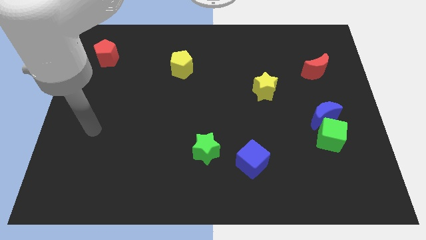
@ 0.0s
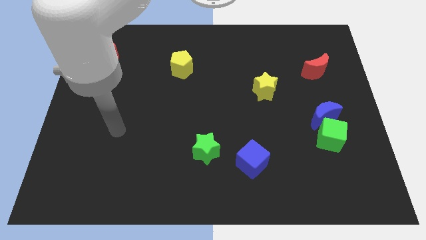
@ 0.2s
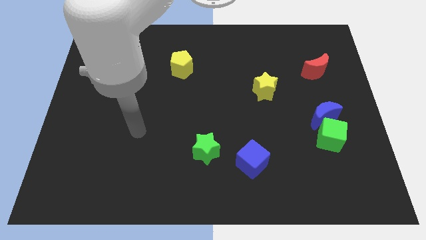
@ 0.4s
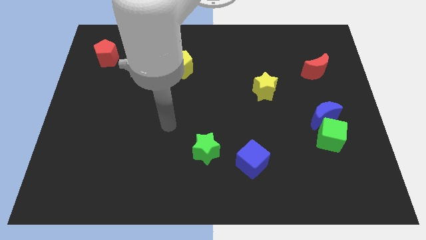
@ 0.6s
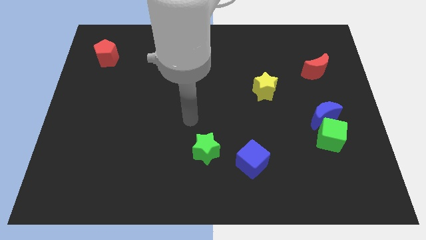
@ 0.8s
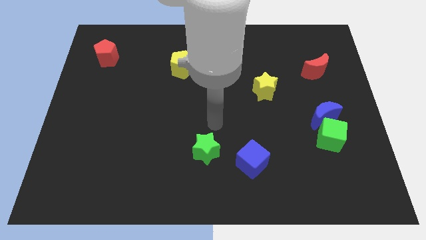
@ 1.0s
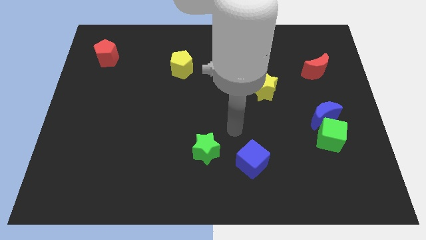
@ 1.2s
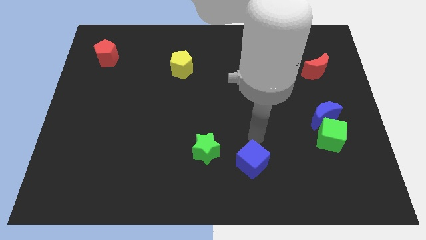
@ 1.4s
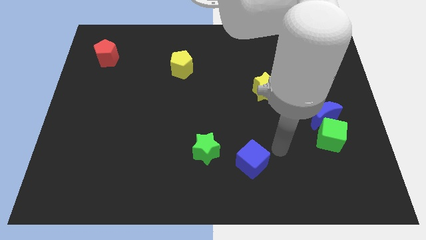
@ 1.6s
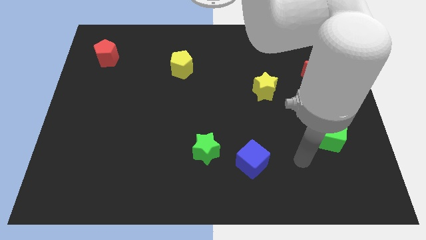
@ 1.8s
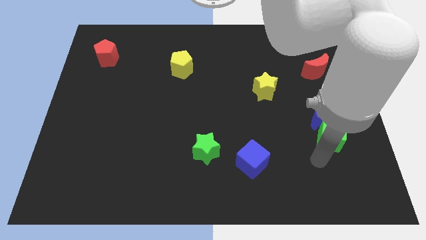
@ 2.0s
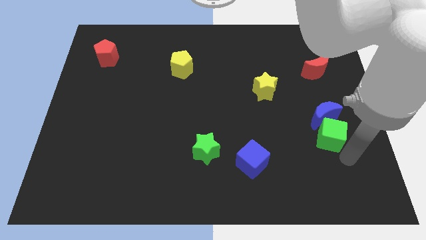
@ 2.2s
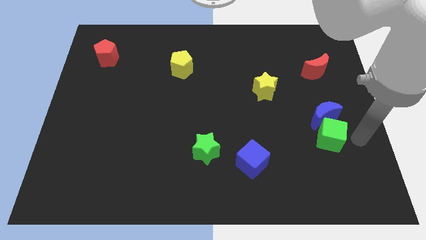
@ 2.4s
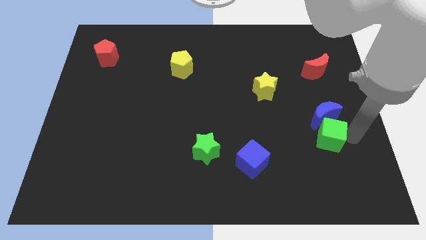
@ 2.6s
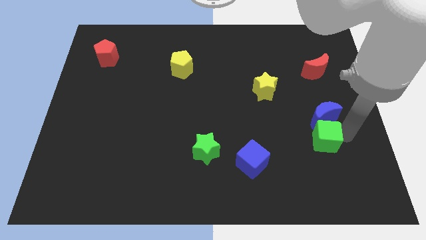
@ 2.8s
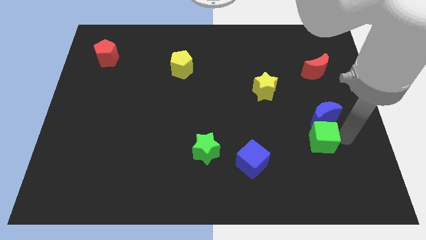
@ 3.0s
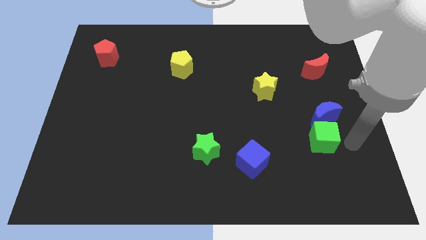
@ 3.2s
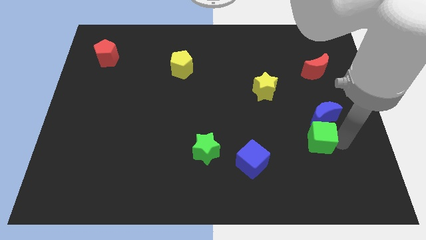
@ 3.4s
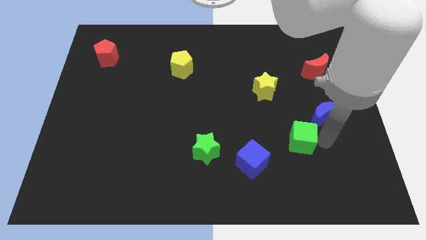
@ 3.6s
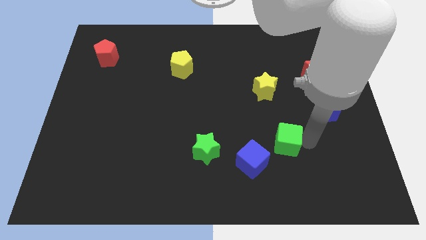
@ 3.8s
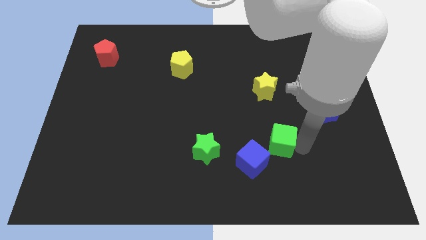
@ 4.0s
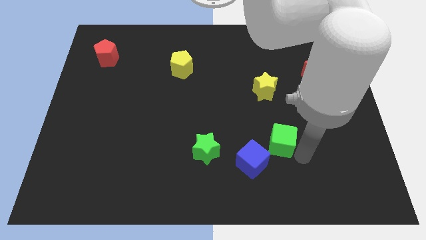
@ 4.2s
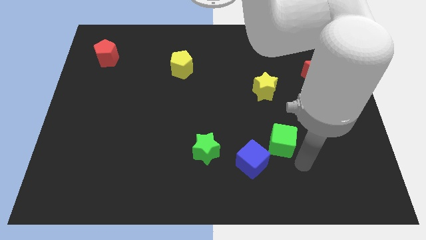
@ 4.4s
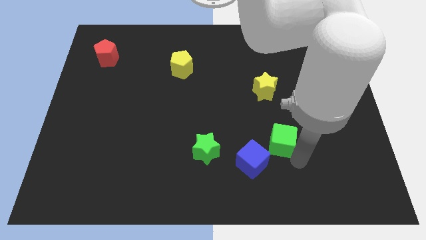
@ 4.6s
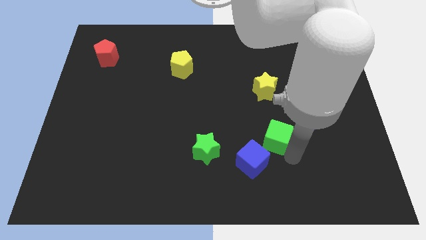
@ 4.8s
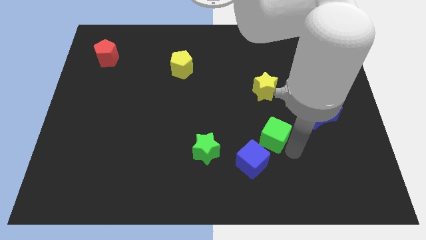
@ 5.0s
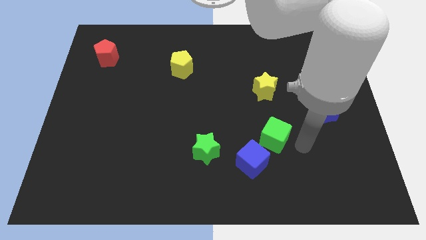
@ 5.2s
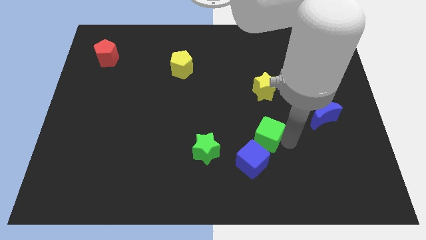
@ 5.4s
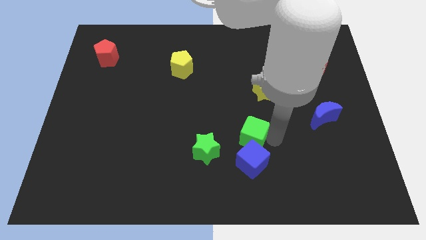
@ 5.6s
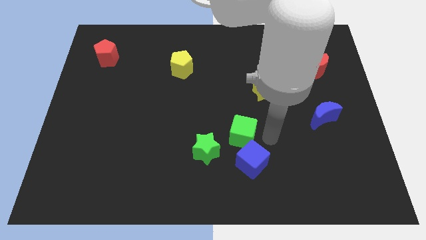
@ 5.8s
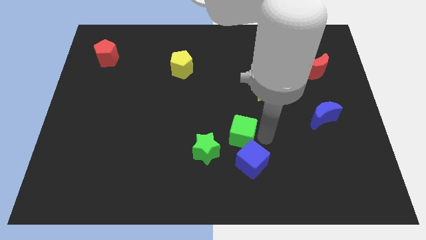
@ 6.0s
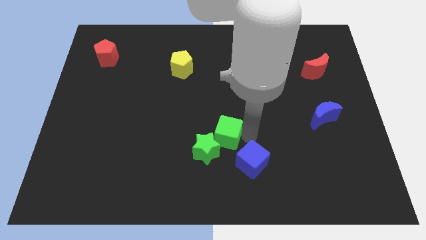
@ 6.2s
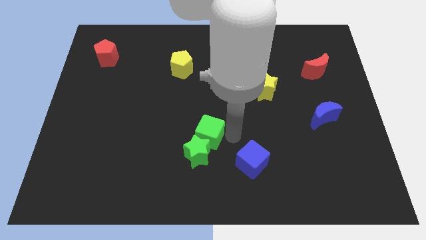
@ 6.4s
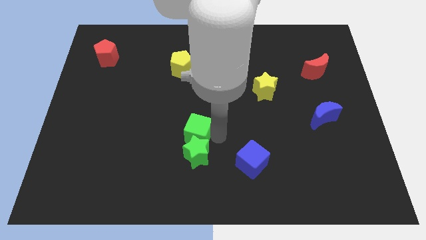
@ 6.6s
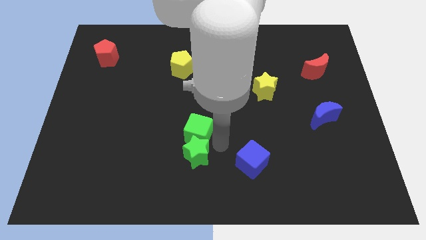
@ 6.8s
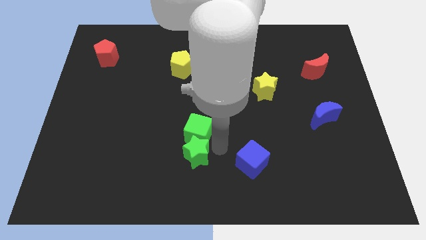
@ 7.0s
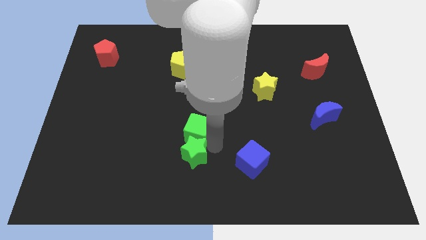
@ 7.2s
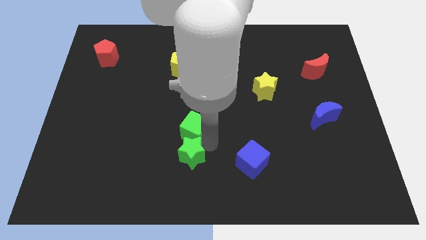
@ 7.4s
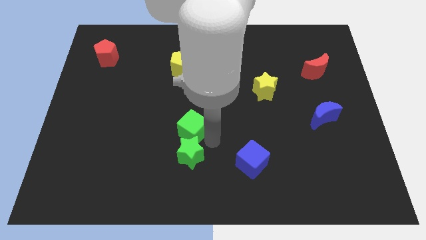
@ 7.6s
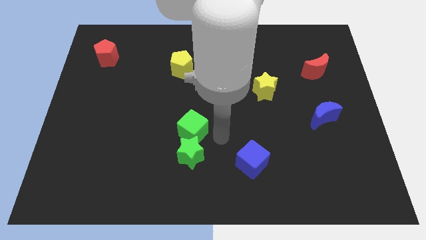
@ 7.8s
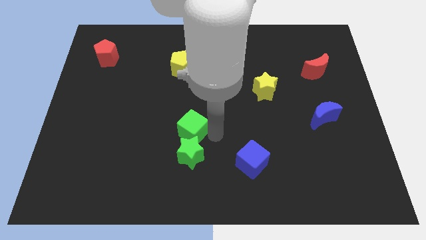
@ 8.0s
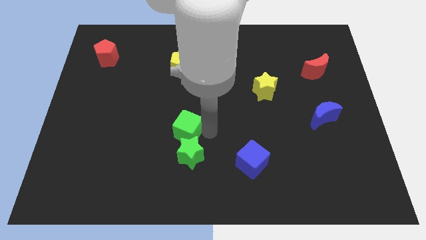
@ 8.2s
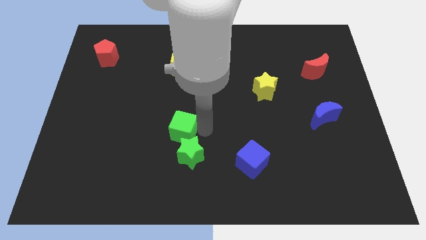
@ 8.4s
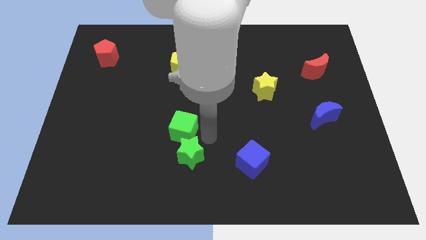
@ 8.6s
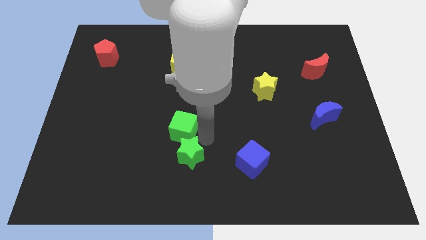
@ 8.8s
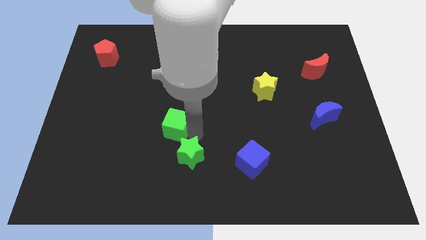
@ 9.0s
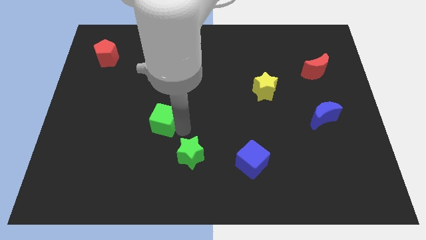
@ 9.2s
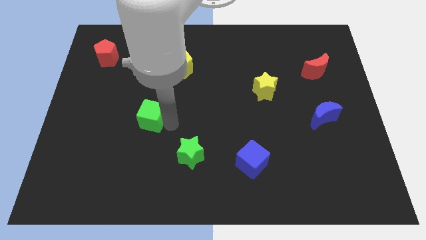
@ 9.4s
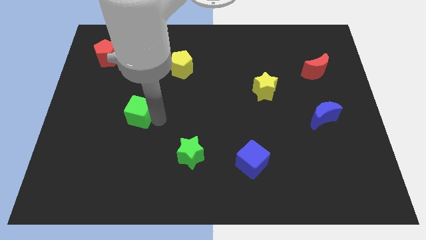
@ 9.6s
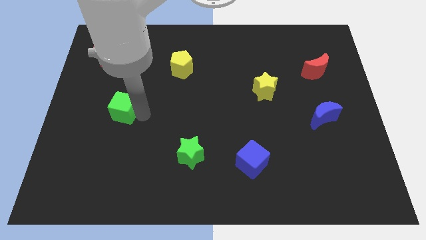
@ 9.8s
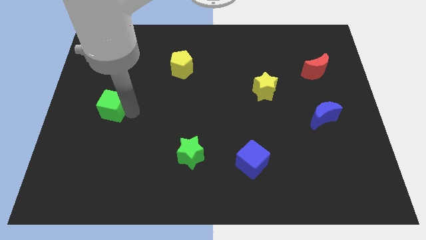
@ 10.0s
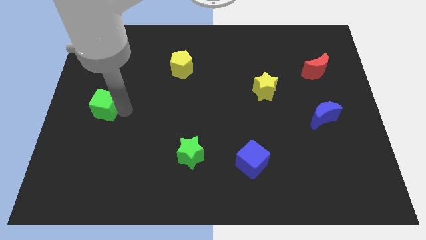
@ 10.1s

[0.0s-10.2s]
move the green cube to the left side of the board

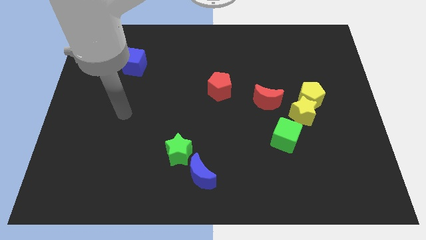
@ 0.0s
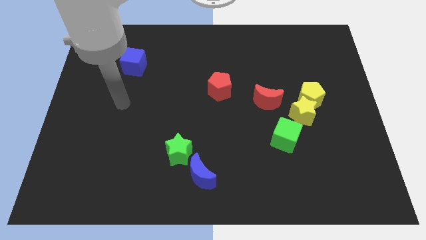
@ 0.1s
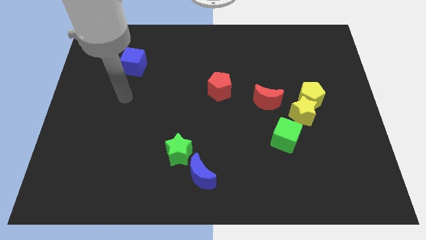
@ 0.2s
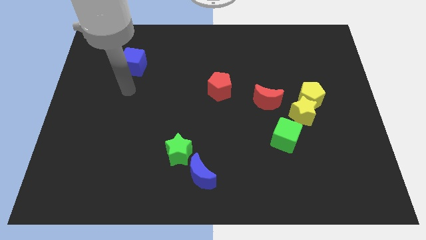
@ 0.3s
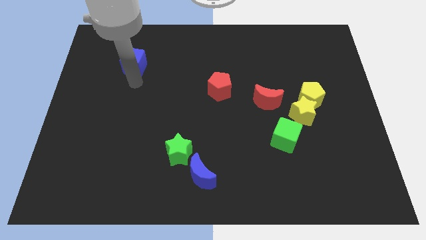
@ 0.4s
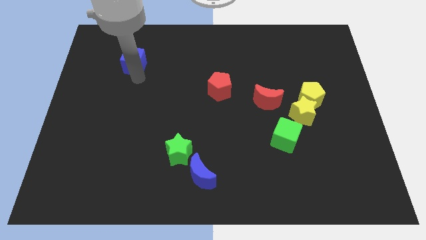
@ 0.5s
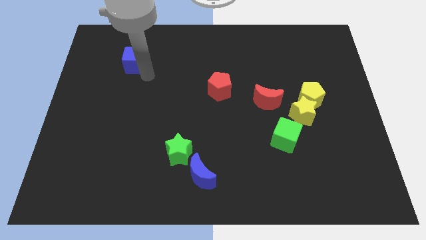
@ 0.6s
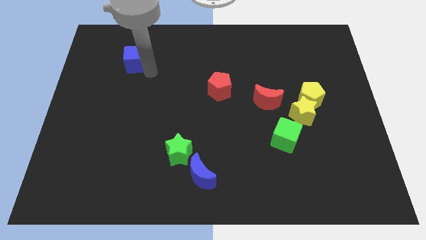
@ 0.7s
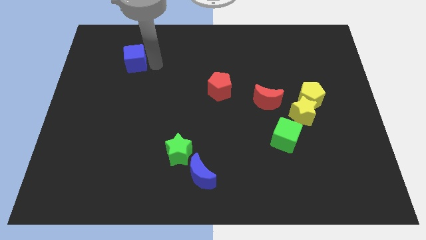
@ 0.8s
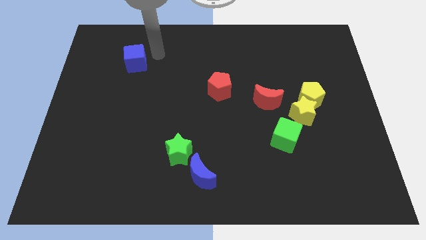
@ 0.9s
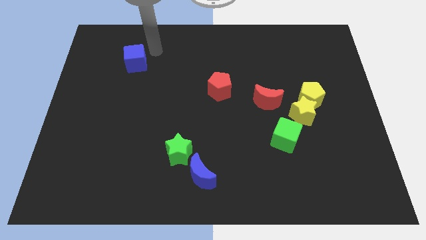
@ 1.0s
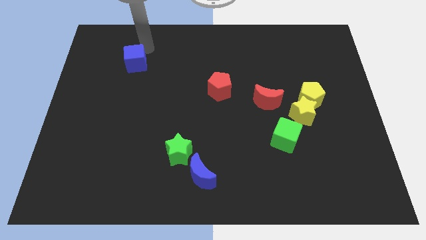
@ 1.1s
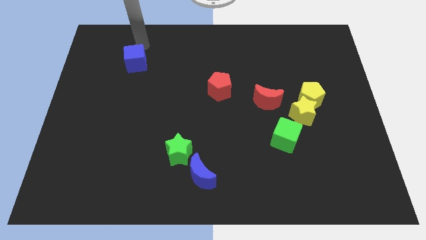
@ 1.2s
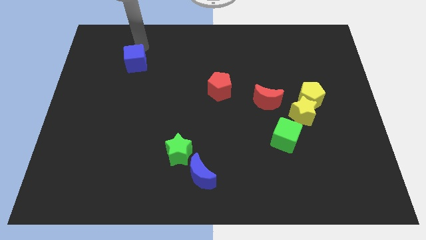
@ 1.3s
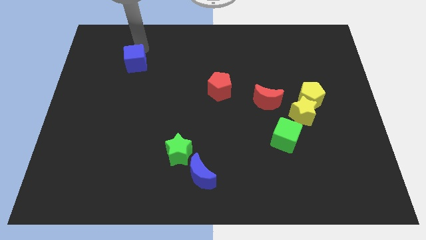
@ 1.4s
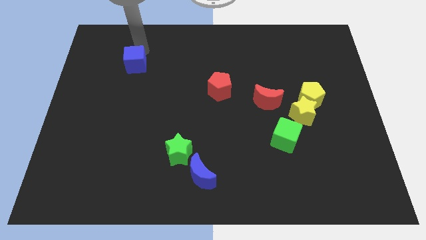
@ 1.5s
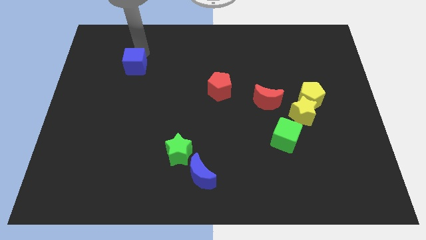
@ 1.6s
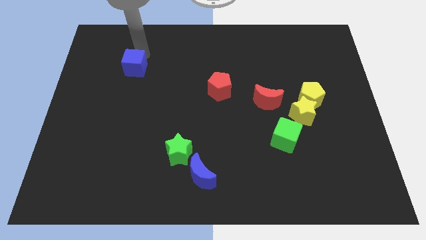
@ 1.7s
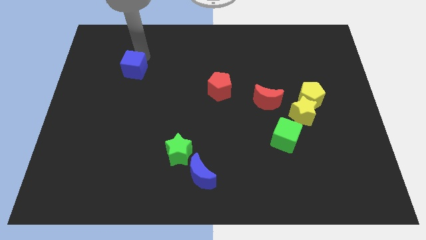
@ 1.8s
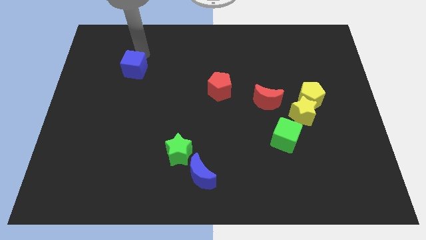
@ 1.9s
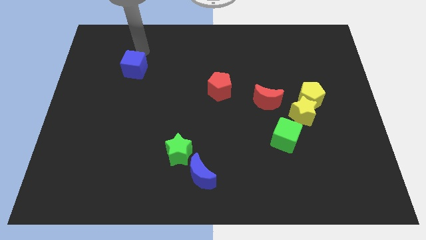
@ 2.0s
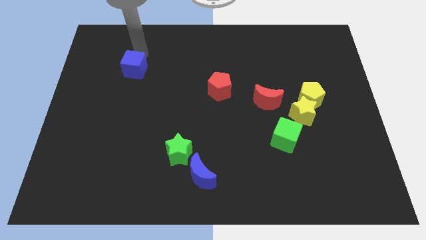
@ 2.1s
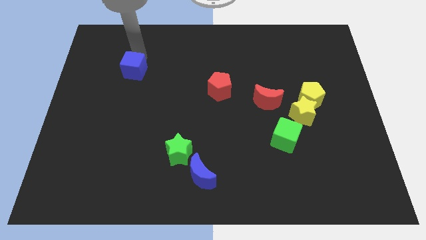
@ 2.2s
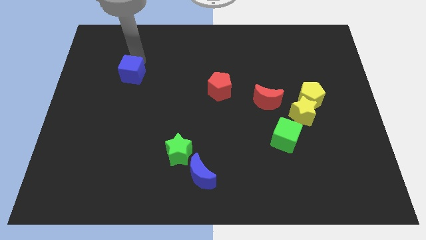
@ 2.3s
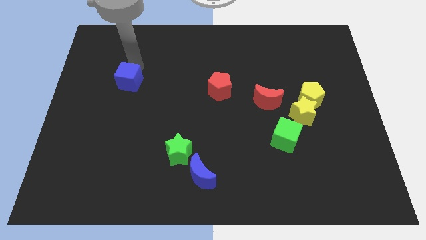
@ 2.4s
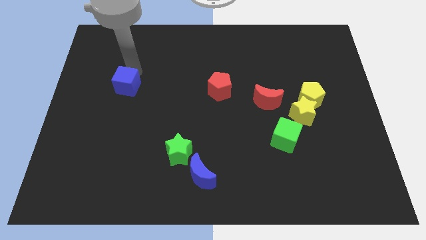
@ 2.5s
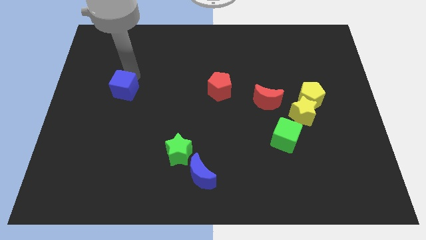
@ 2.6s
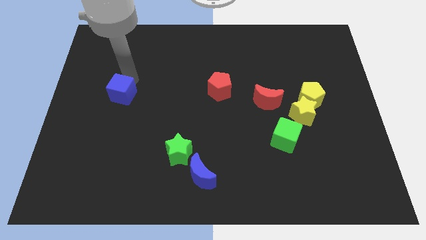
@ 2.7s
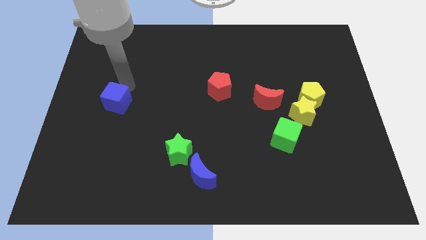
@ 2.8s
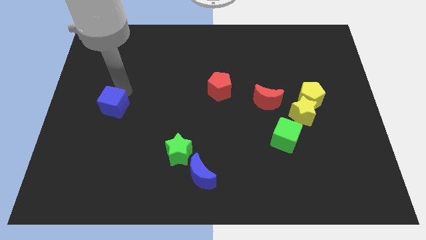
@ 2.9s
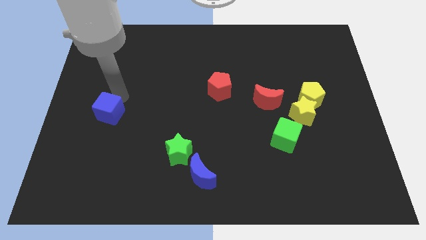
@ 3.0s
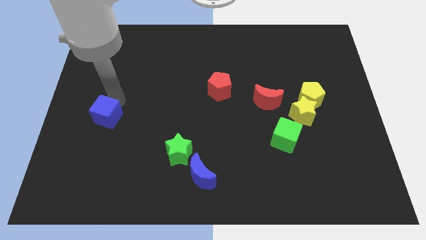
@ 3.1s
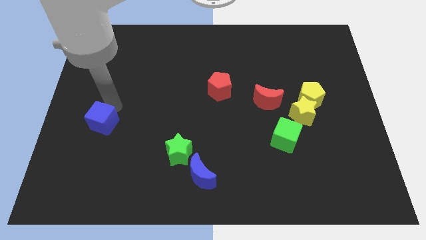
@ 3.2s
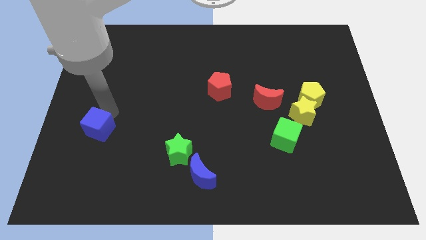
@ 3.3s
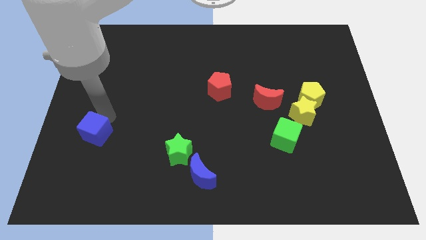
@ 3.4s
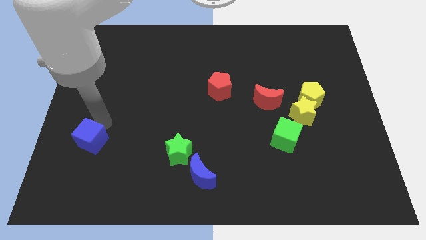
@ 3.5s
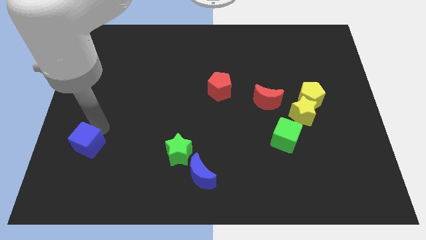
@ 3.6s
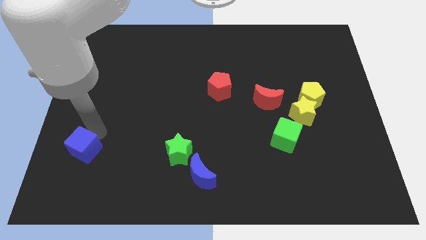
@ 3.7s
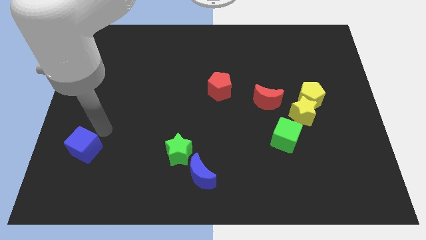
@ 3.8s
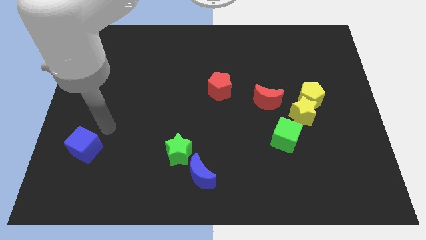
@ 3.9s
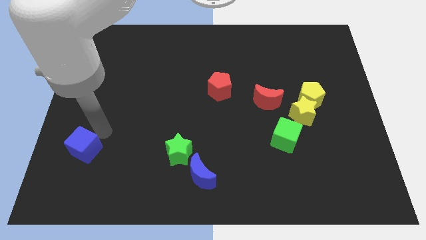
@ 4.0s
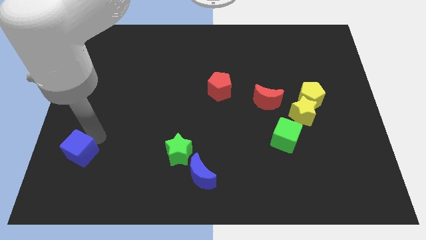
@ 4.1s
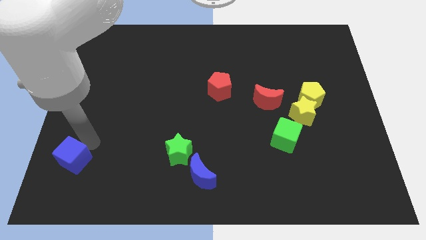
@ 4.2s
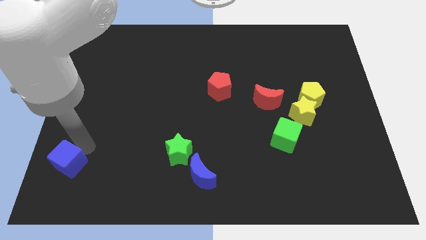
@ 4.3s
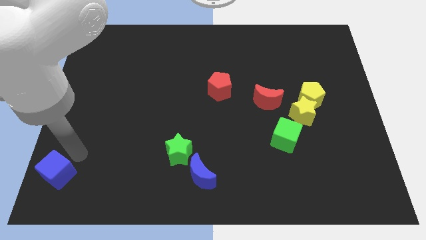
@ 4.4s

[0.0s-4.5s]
move the blue cube to the lower left corner
